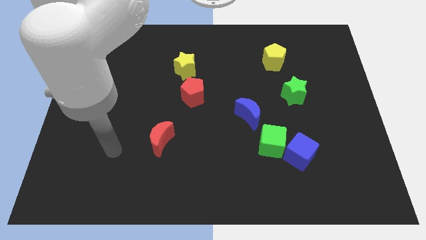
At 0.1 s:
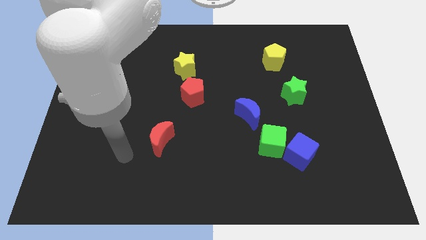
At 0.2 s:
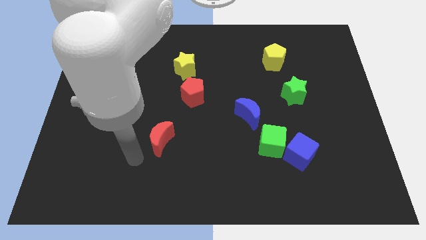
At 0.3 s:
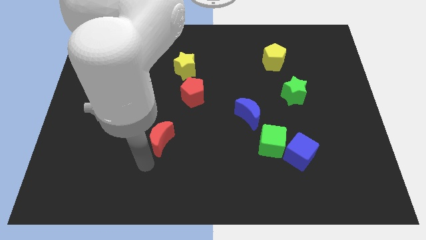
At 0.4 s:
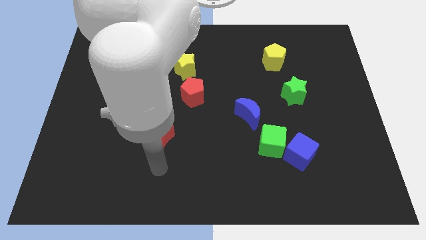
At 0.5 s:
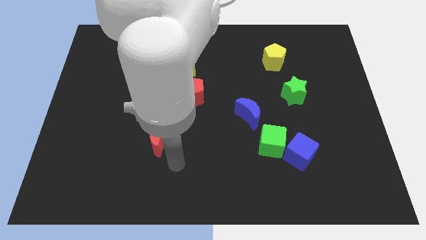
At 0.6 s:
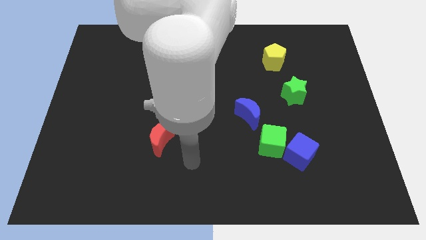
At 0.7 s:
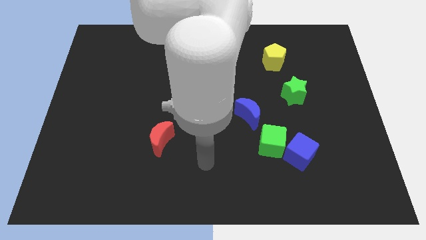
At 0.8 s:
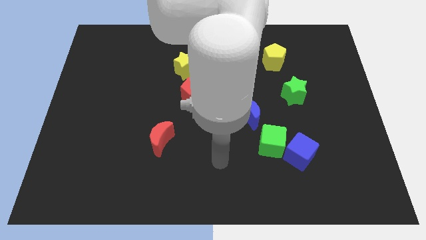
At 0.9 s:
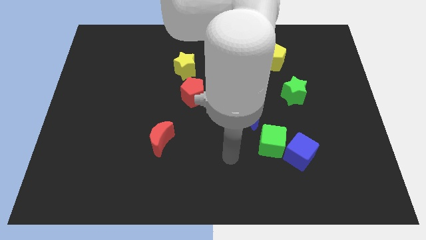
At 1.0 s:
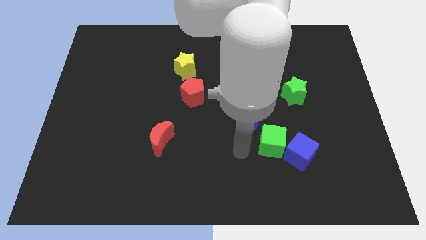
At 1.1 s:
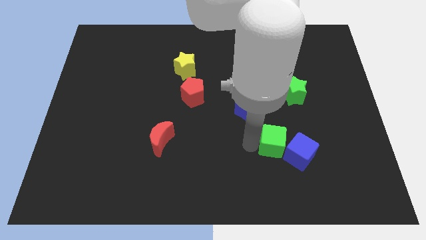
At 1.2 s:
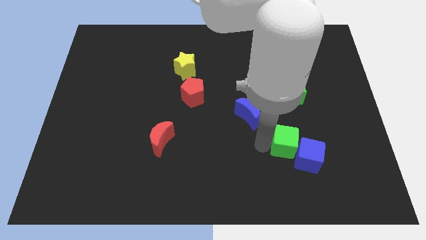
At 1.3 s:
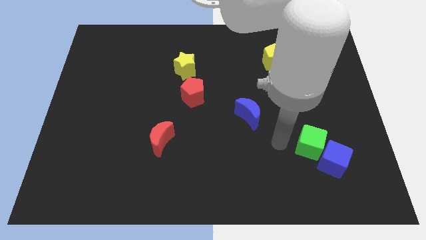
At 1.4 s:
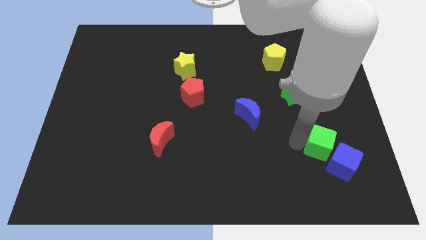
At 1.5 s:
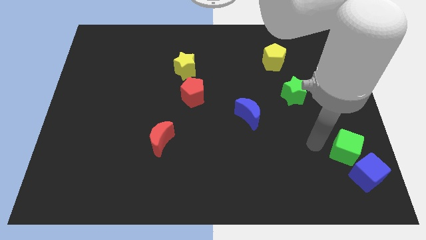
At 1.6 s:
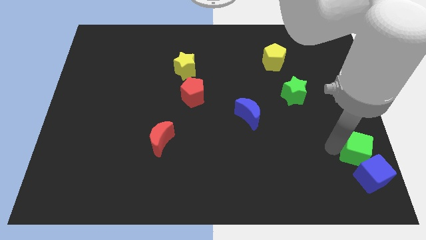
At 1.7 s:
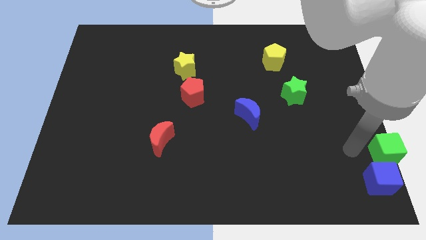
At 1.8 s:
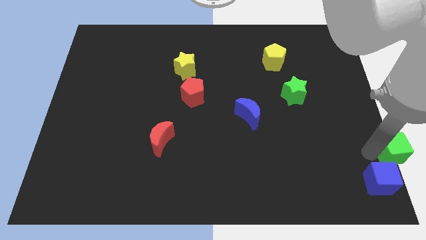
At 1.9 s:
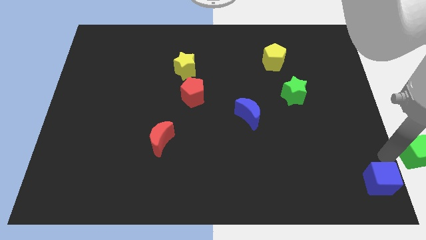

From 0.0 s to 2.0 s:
separate the blue cube from the green cube

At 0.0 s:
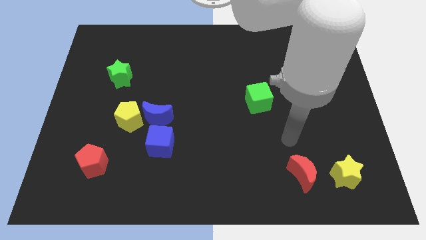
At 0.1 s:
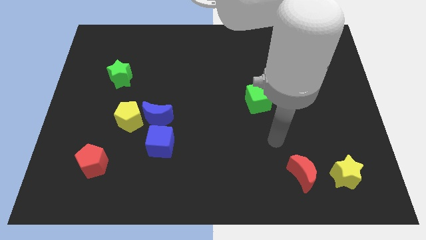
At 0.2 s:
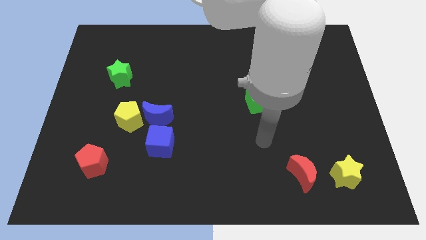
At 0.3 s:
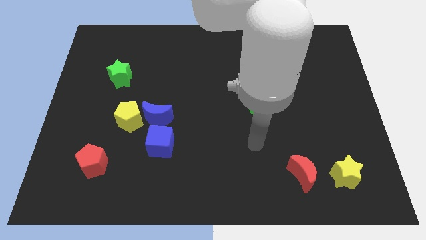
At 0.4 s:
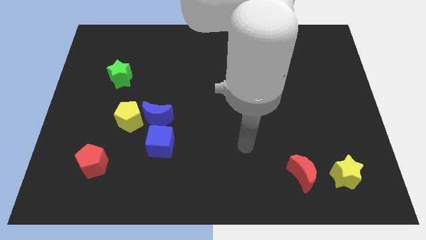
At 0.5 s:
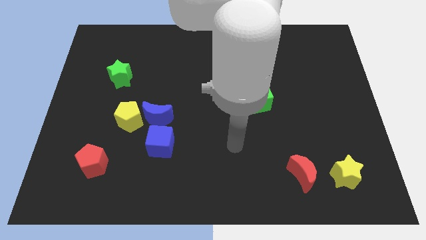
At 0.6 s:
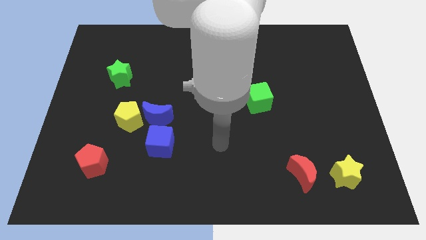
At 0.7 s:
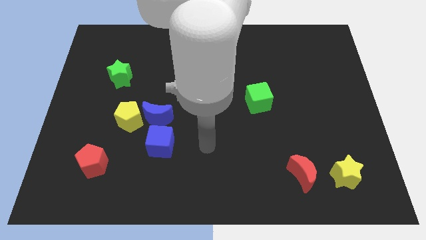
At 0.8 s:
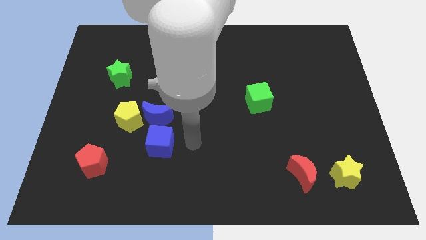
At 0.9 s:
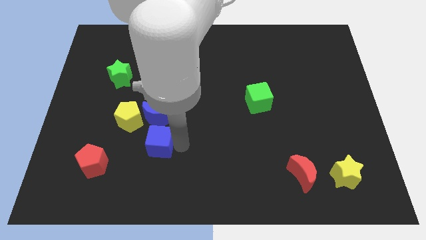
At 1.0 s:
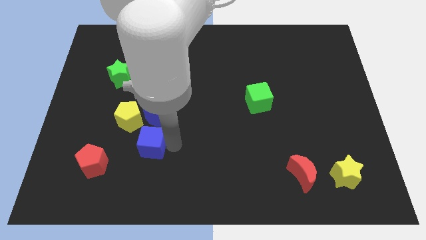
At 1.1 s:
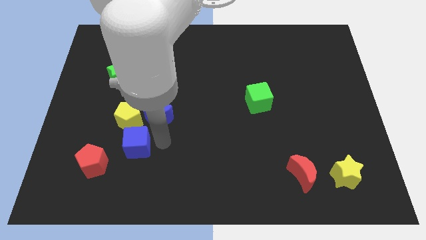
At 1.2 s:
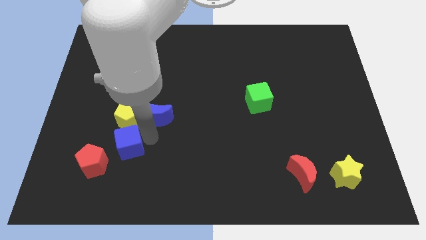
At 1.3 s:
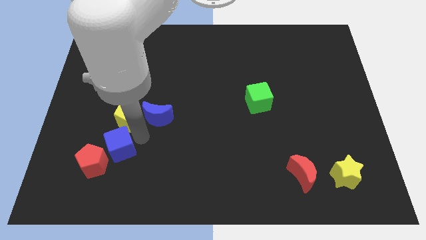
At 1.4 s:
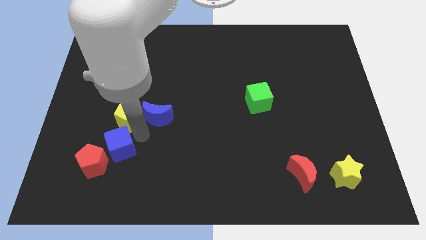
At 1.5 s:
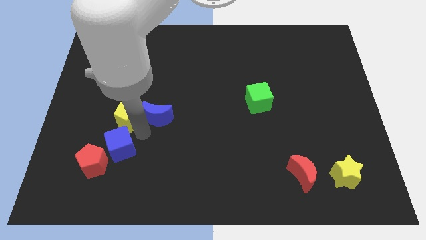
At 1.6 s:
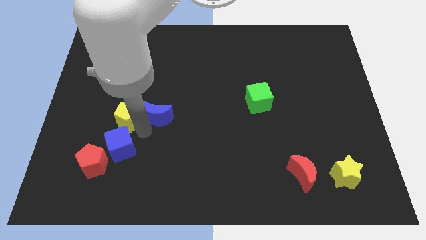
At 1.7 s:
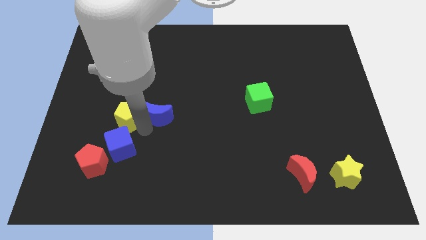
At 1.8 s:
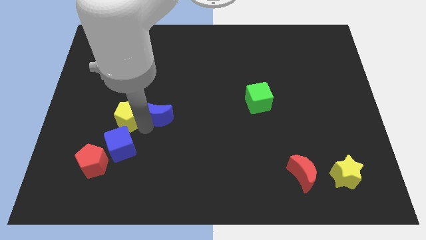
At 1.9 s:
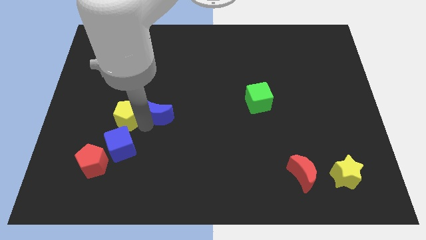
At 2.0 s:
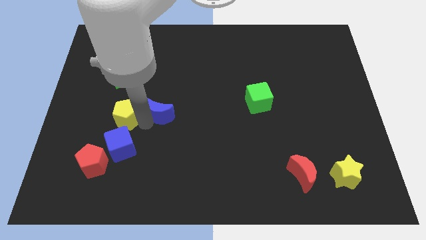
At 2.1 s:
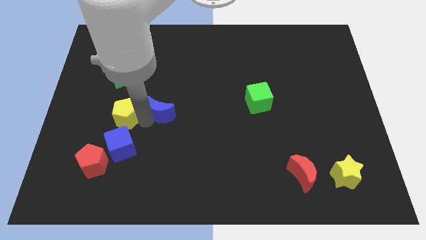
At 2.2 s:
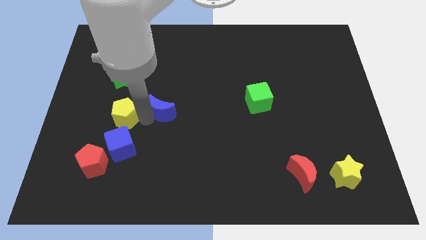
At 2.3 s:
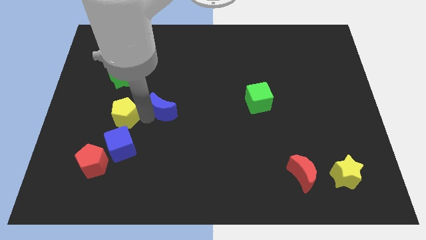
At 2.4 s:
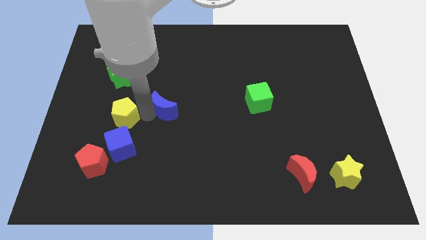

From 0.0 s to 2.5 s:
move the blue moon away from the yellow pentagon and blue cube

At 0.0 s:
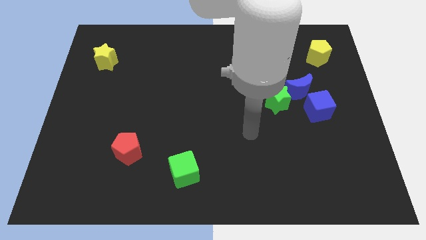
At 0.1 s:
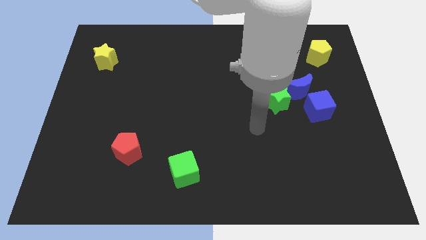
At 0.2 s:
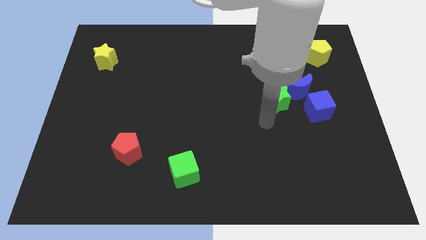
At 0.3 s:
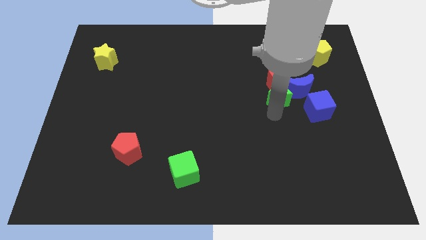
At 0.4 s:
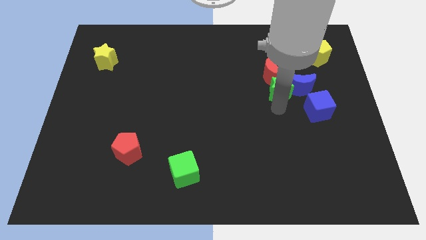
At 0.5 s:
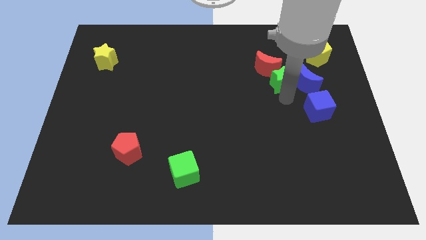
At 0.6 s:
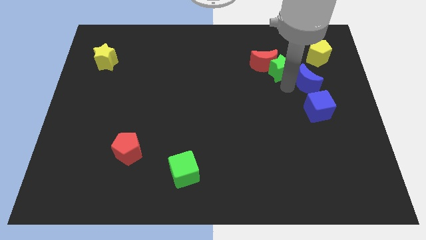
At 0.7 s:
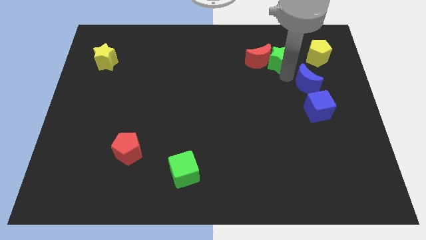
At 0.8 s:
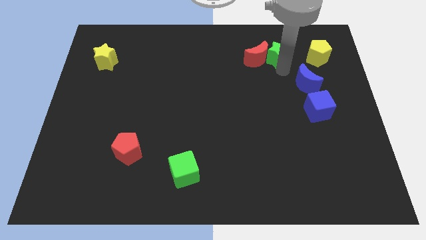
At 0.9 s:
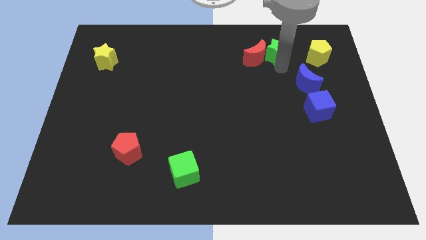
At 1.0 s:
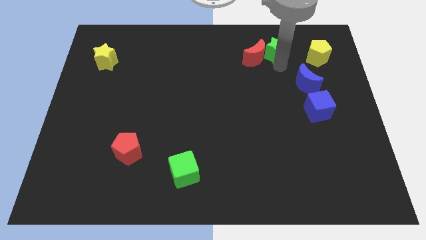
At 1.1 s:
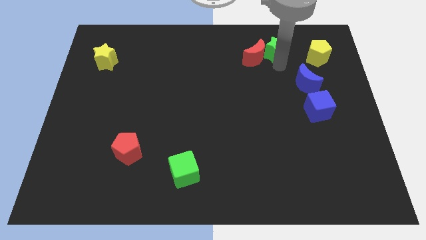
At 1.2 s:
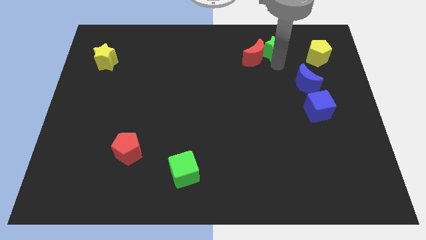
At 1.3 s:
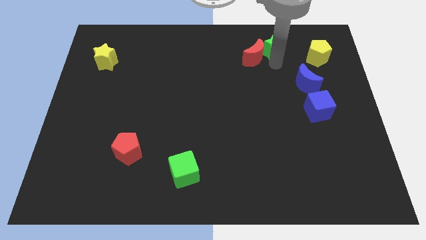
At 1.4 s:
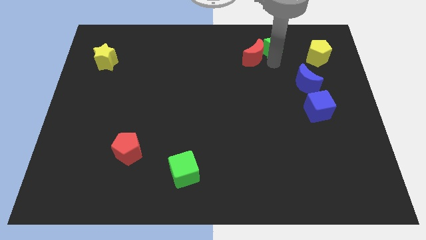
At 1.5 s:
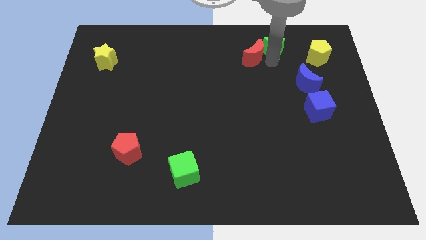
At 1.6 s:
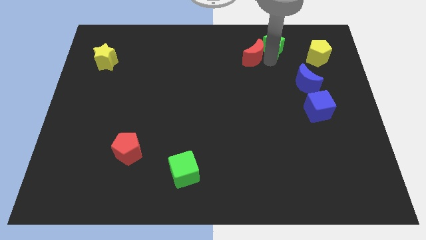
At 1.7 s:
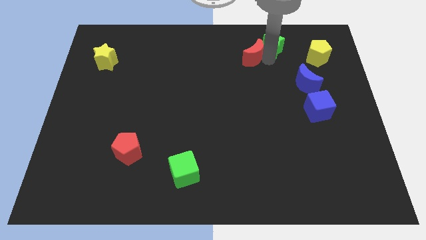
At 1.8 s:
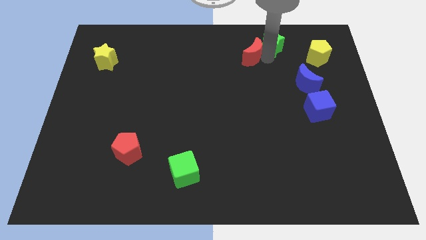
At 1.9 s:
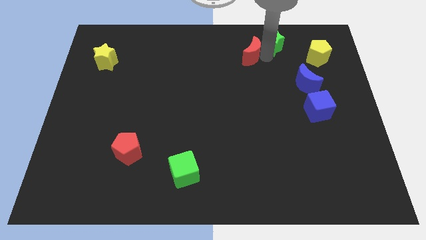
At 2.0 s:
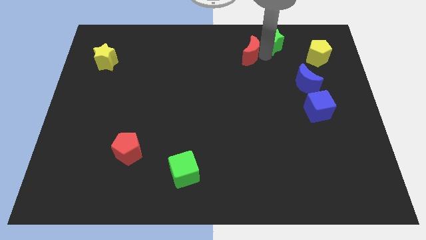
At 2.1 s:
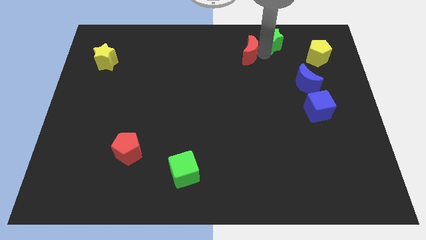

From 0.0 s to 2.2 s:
pull the red moon apart from the green star and blue moon

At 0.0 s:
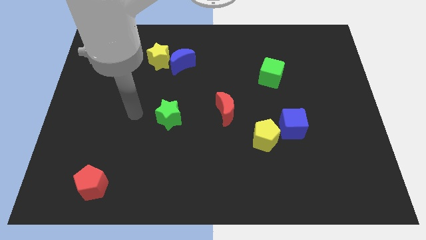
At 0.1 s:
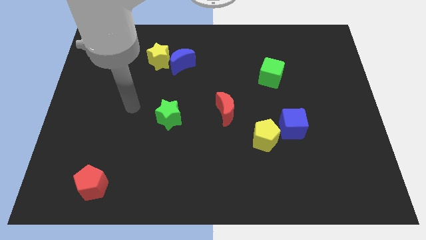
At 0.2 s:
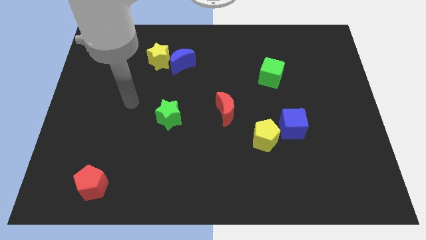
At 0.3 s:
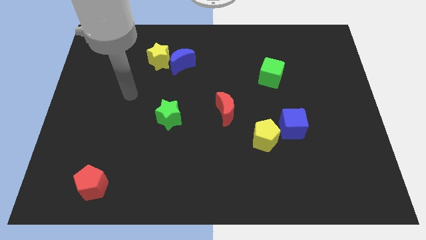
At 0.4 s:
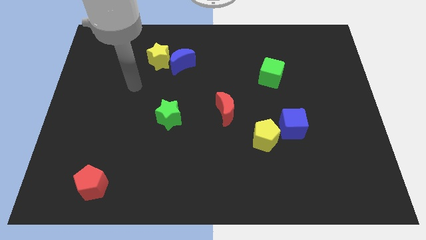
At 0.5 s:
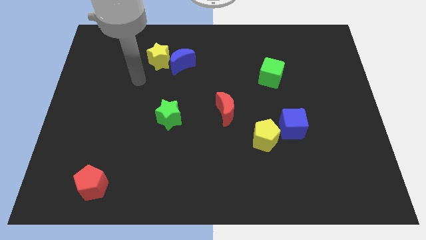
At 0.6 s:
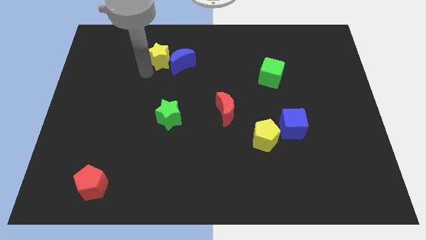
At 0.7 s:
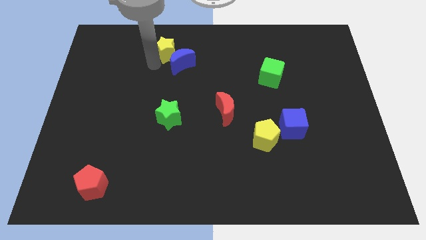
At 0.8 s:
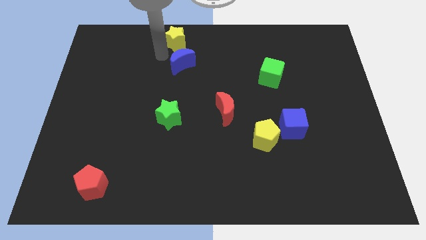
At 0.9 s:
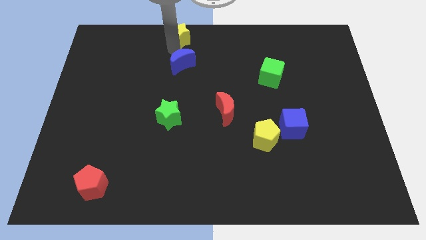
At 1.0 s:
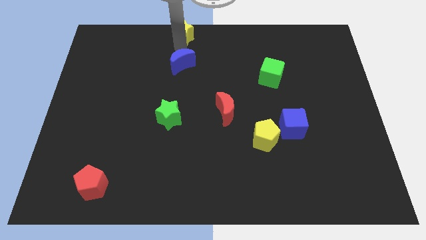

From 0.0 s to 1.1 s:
move the blue moon away from the yellow star

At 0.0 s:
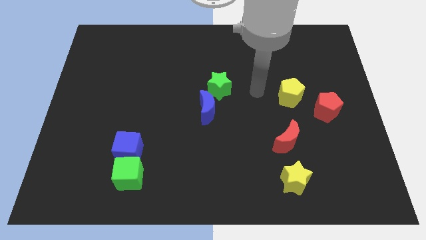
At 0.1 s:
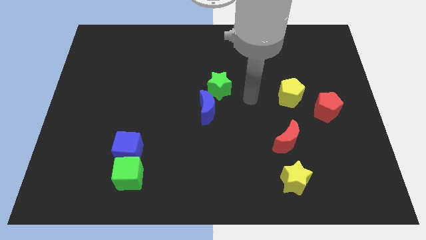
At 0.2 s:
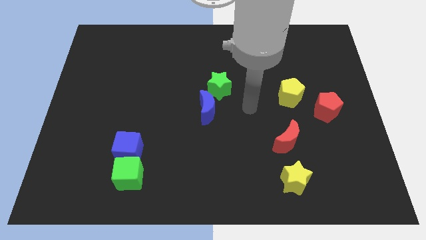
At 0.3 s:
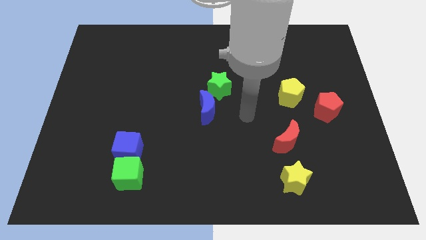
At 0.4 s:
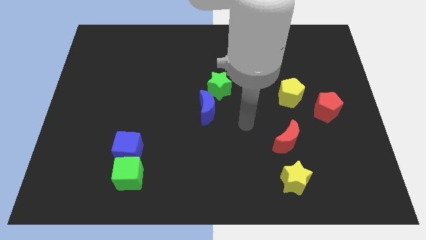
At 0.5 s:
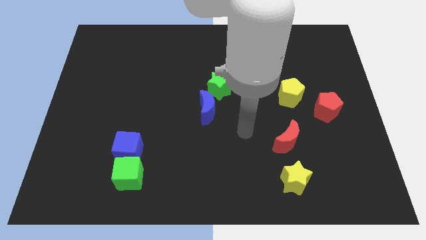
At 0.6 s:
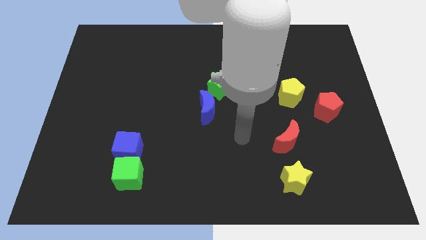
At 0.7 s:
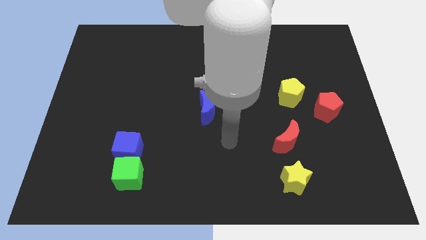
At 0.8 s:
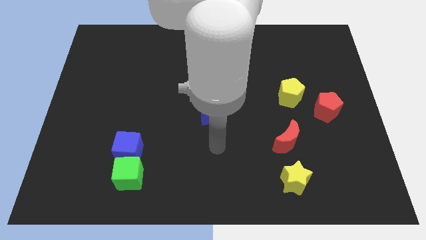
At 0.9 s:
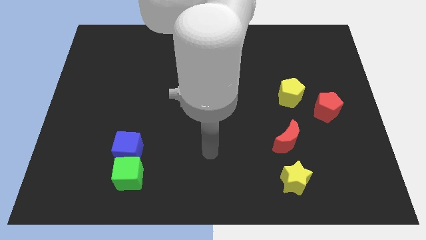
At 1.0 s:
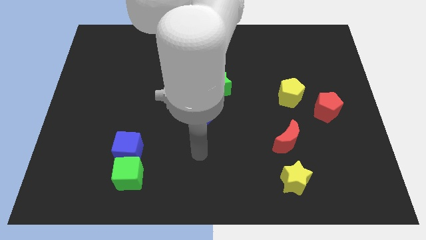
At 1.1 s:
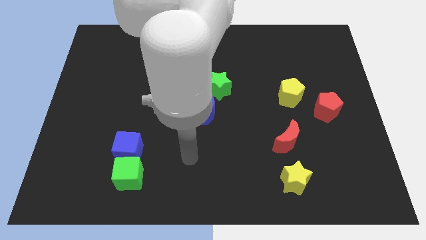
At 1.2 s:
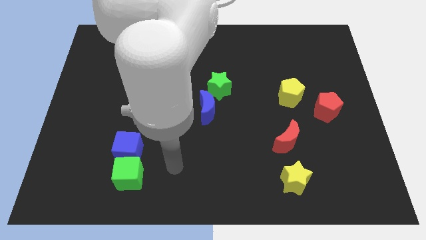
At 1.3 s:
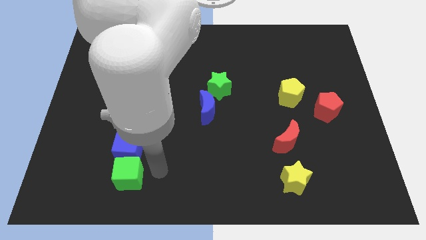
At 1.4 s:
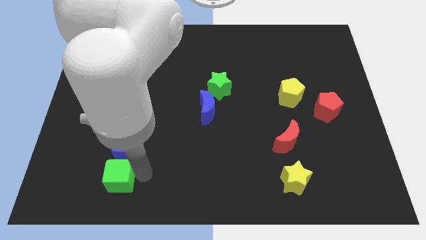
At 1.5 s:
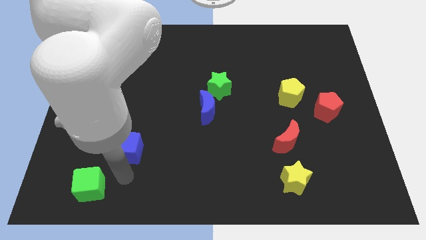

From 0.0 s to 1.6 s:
move the blue cube away from the green cube
